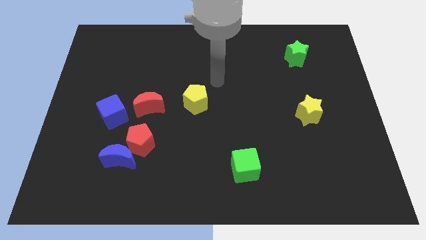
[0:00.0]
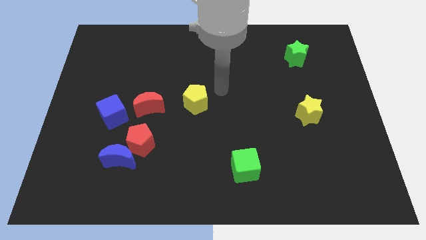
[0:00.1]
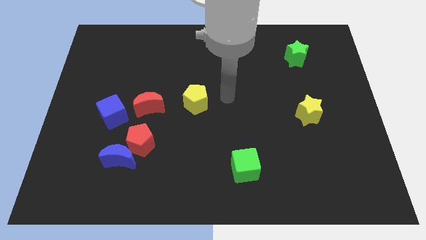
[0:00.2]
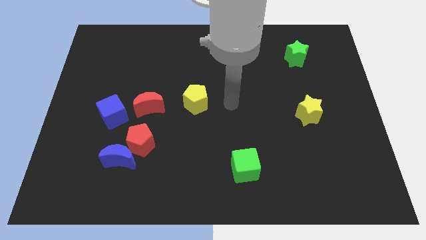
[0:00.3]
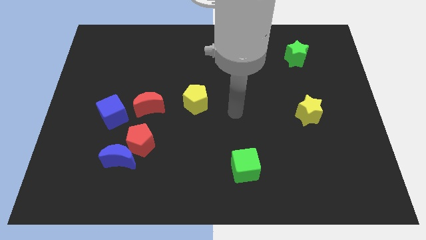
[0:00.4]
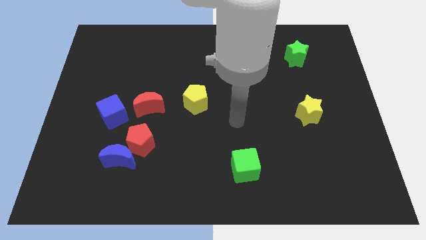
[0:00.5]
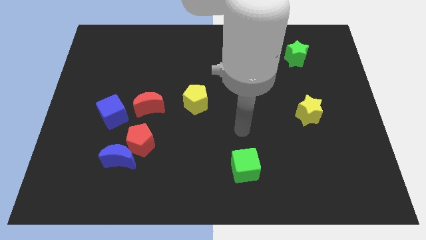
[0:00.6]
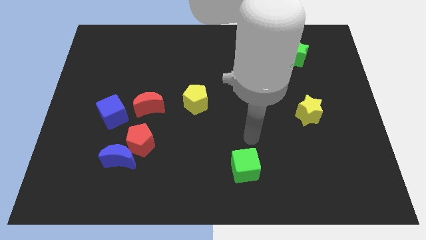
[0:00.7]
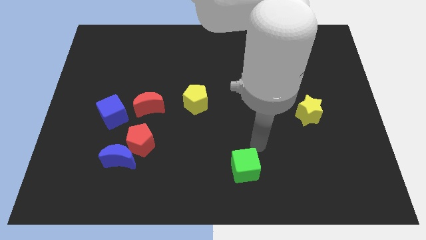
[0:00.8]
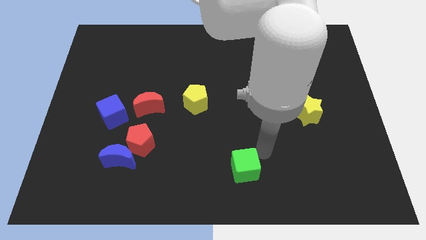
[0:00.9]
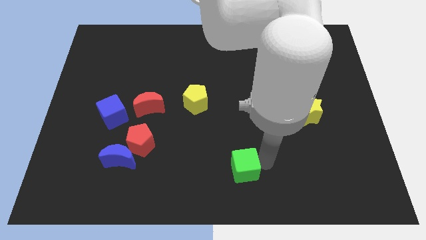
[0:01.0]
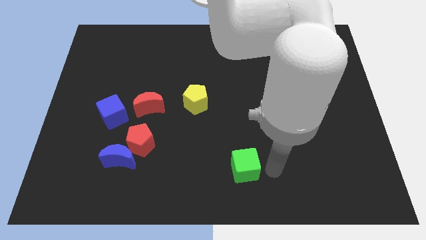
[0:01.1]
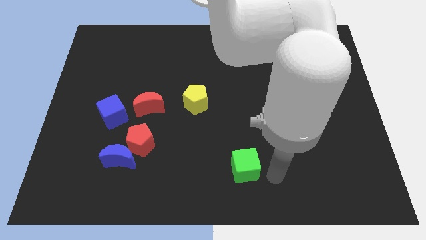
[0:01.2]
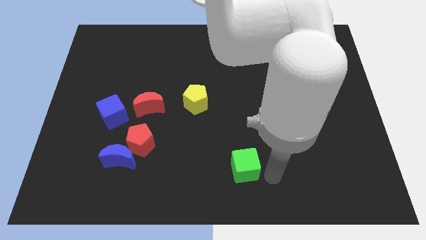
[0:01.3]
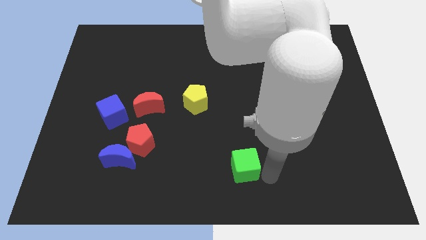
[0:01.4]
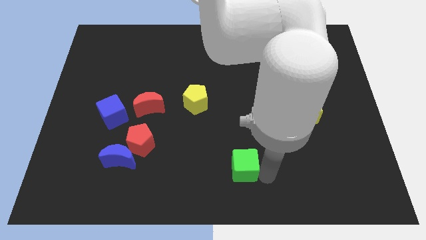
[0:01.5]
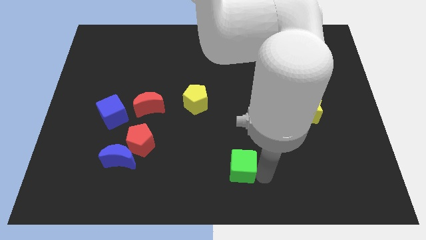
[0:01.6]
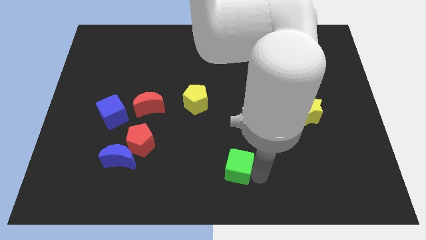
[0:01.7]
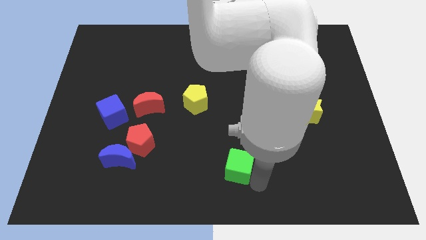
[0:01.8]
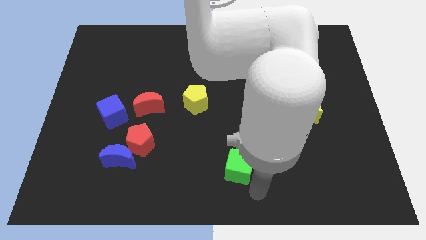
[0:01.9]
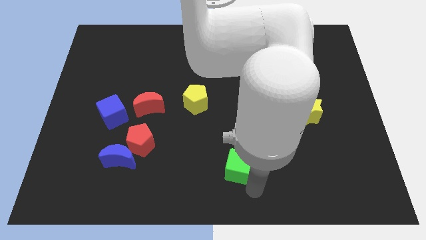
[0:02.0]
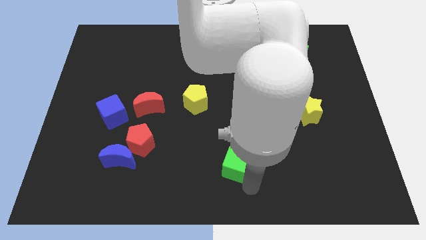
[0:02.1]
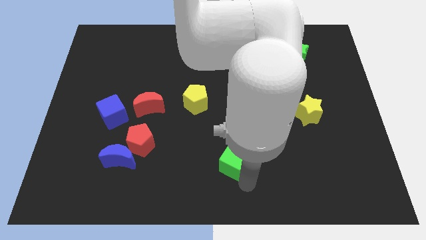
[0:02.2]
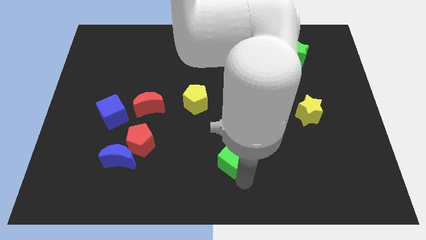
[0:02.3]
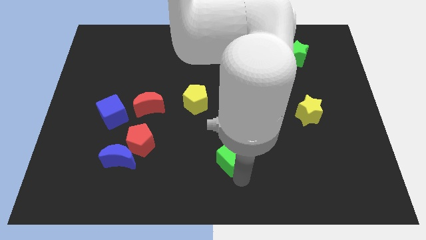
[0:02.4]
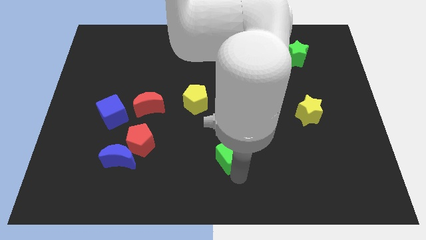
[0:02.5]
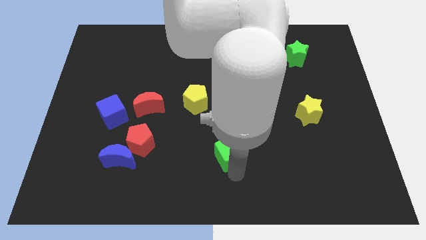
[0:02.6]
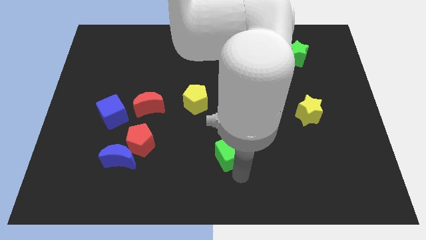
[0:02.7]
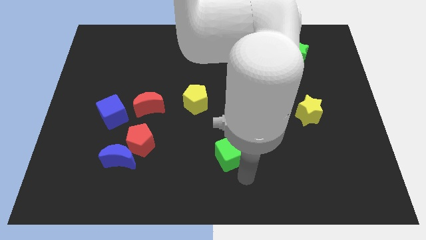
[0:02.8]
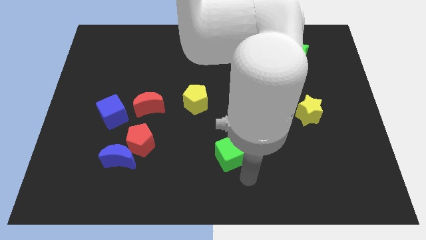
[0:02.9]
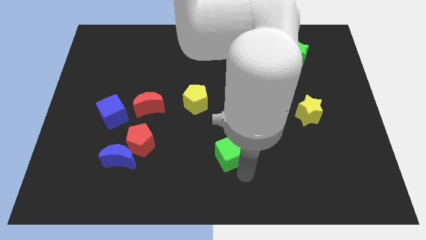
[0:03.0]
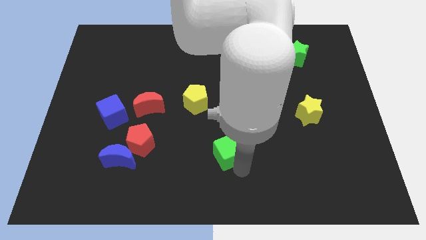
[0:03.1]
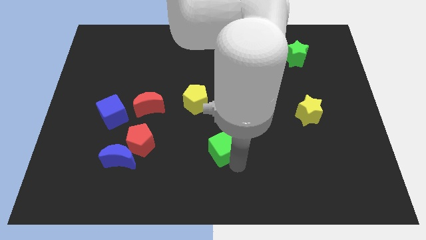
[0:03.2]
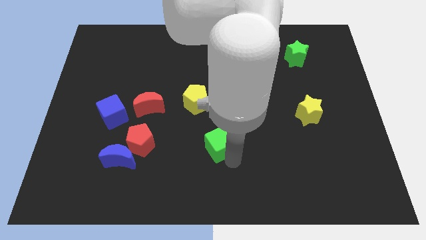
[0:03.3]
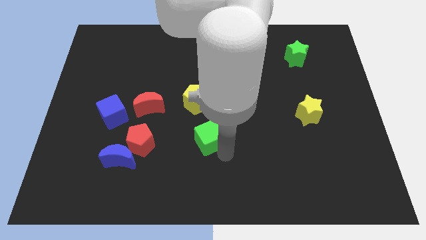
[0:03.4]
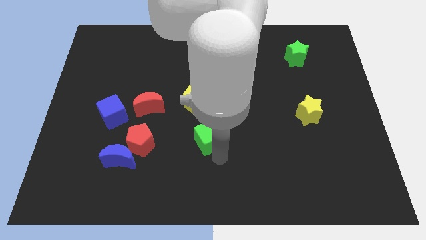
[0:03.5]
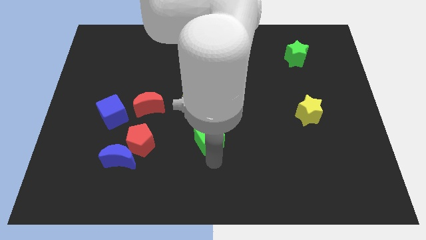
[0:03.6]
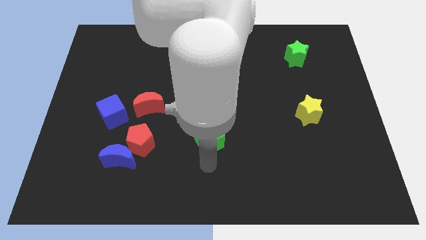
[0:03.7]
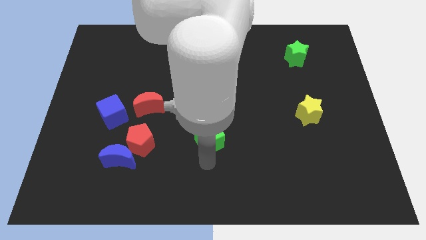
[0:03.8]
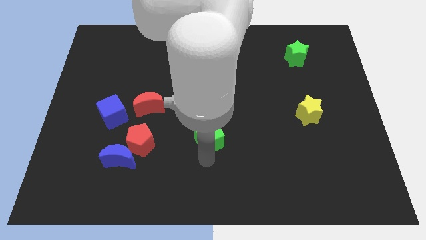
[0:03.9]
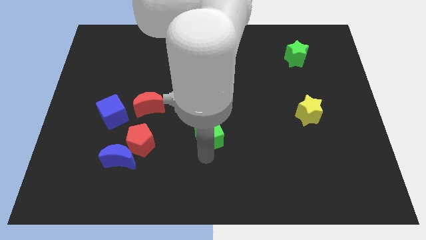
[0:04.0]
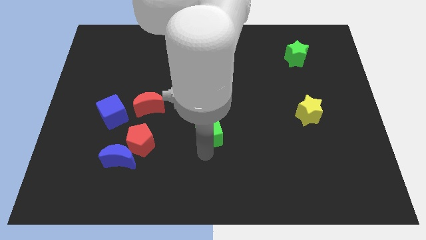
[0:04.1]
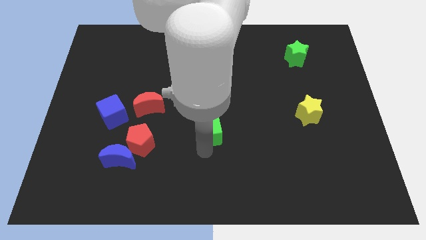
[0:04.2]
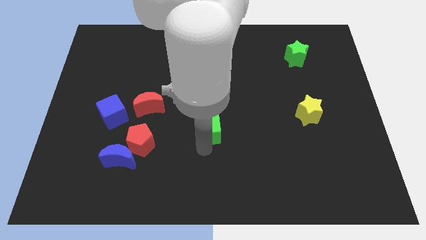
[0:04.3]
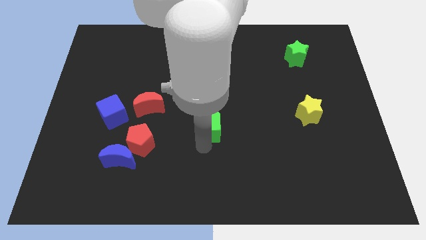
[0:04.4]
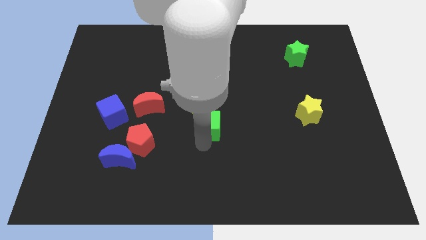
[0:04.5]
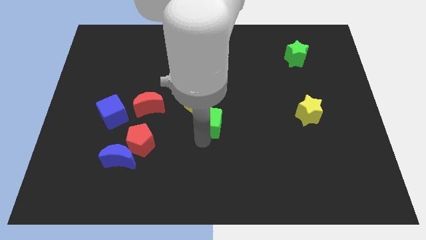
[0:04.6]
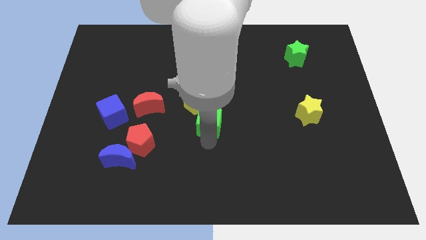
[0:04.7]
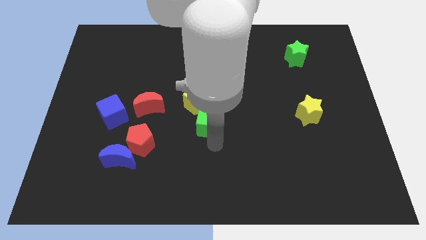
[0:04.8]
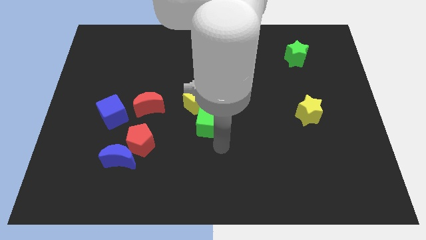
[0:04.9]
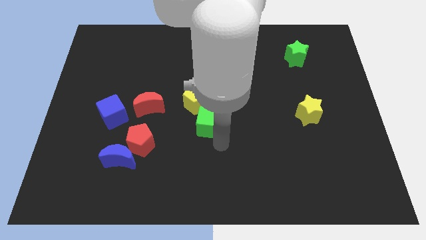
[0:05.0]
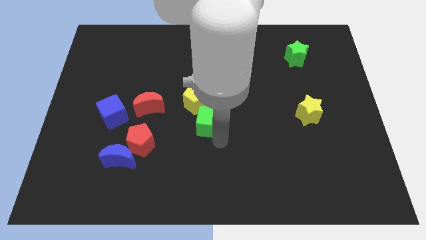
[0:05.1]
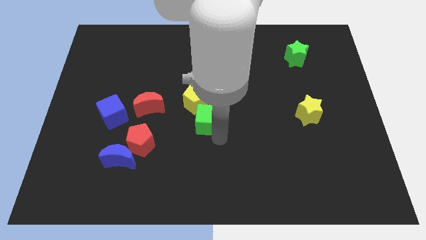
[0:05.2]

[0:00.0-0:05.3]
push the green cube next to the yellow pentagon

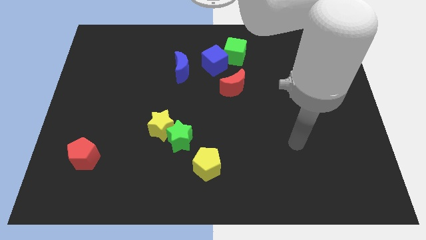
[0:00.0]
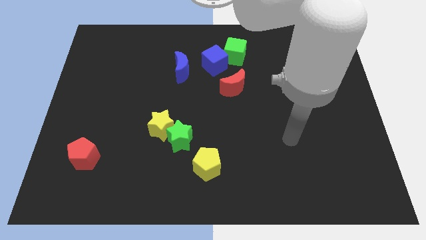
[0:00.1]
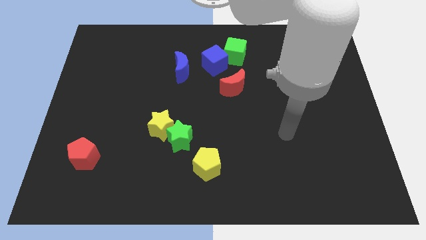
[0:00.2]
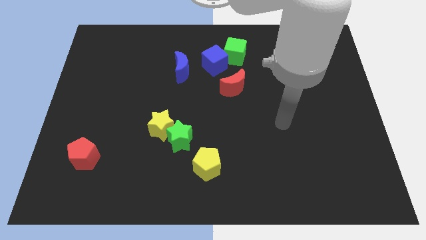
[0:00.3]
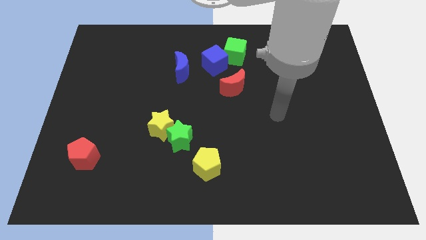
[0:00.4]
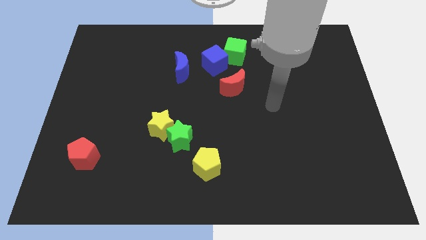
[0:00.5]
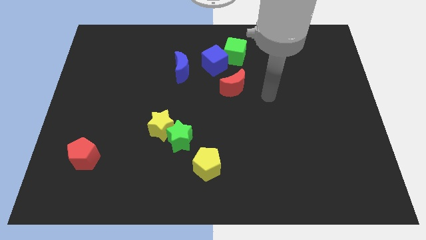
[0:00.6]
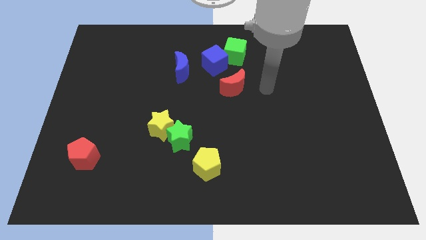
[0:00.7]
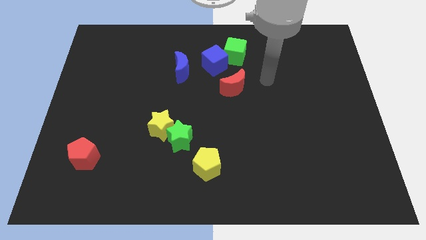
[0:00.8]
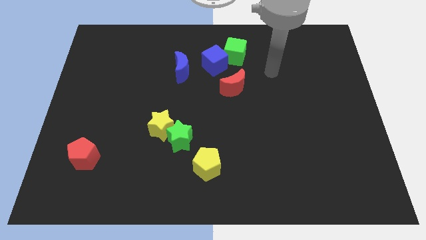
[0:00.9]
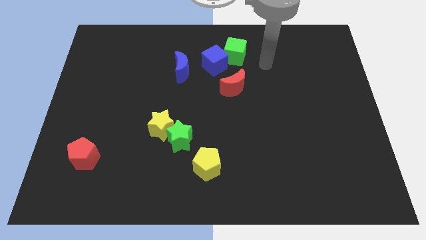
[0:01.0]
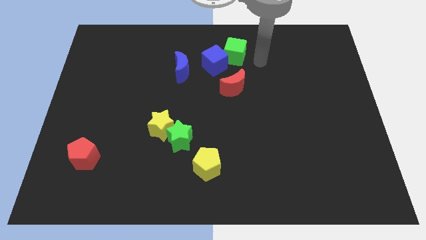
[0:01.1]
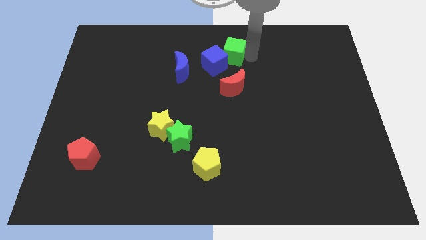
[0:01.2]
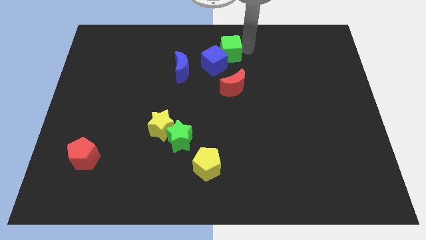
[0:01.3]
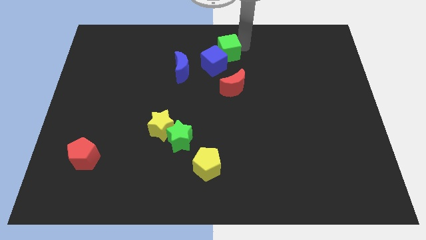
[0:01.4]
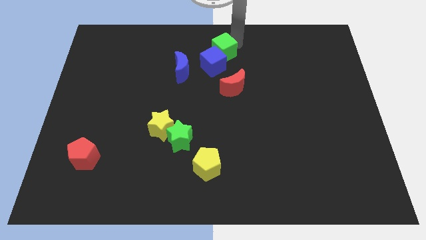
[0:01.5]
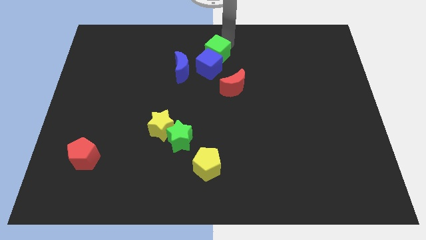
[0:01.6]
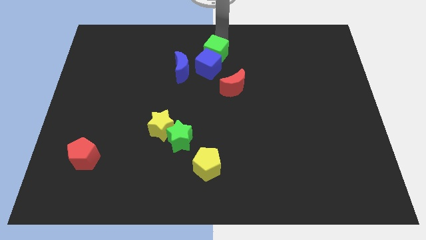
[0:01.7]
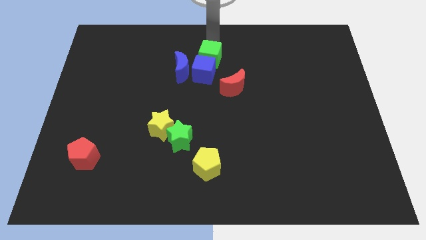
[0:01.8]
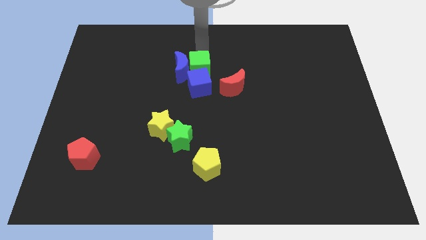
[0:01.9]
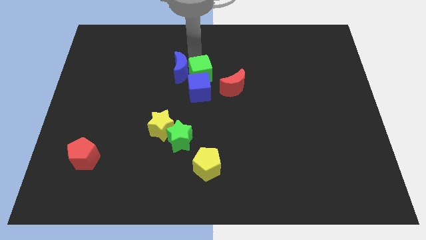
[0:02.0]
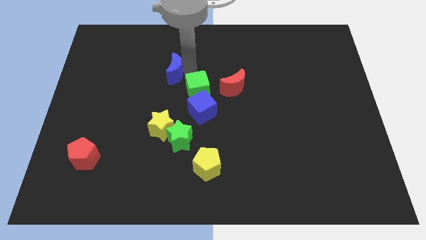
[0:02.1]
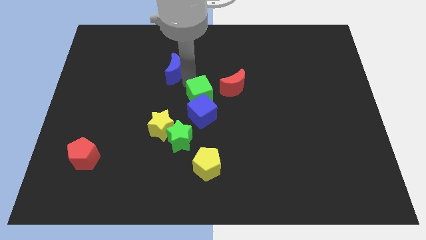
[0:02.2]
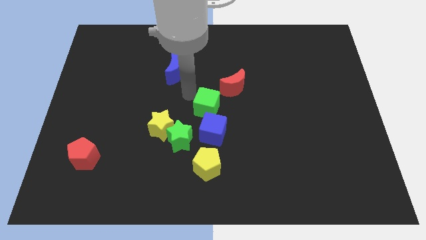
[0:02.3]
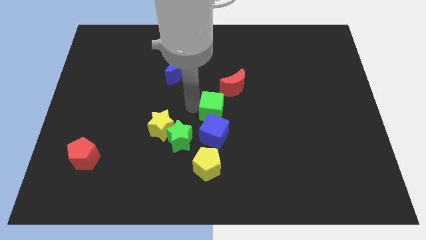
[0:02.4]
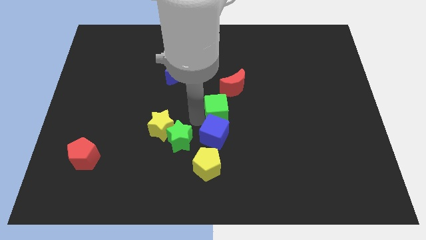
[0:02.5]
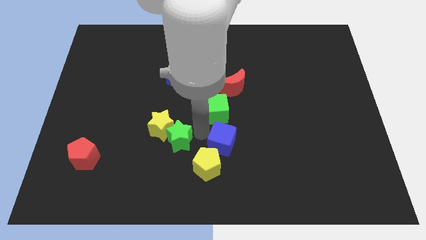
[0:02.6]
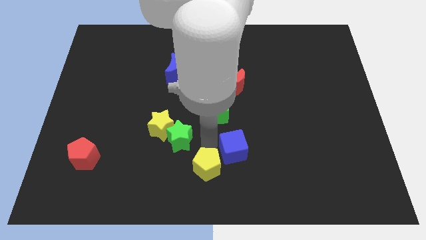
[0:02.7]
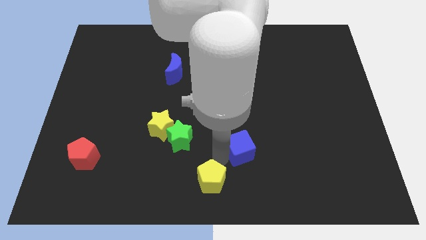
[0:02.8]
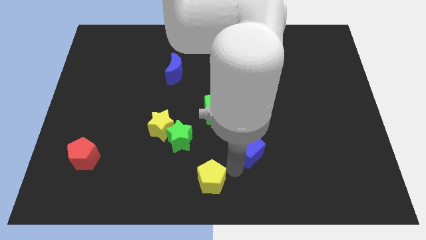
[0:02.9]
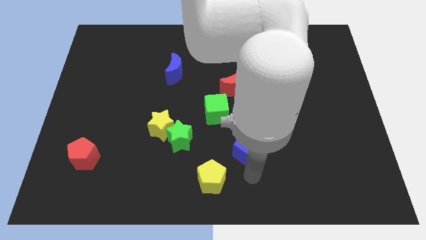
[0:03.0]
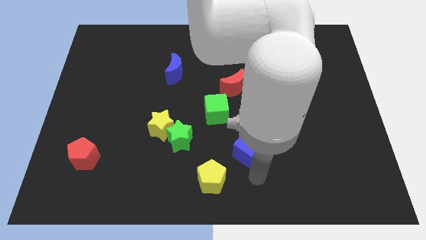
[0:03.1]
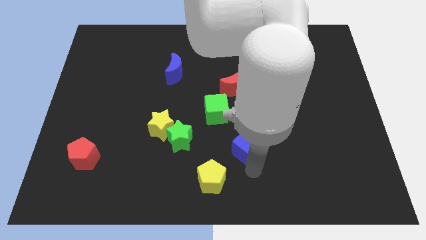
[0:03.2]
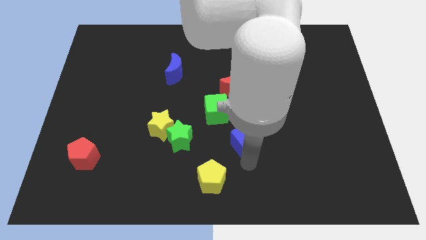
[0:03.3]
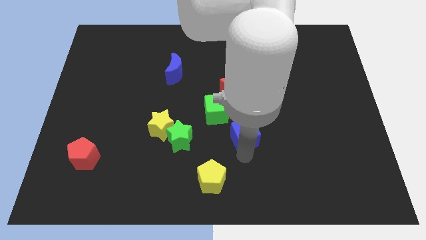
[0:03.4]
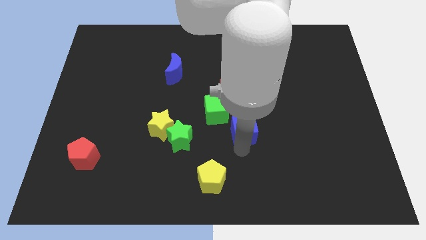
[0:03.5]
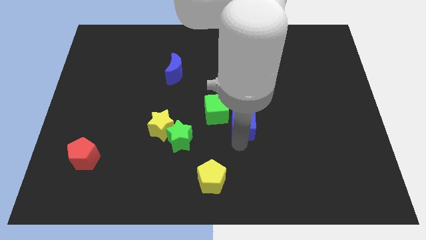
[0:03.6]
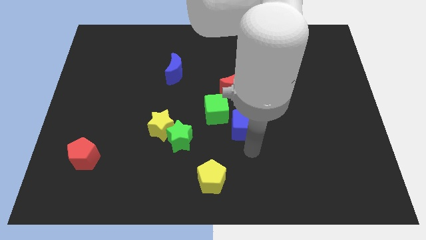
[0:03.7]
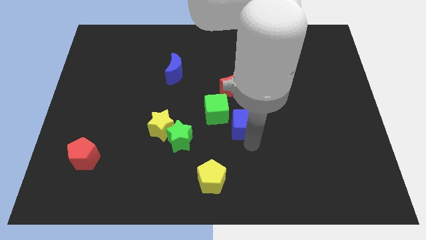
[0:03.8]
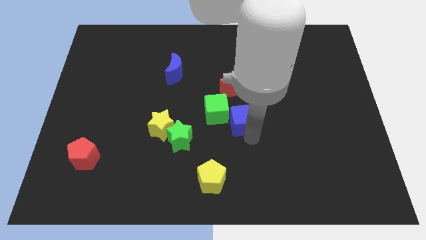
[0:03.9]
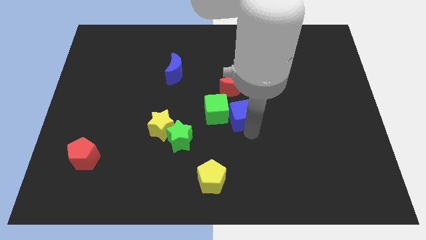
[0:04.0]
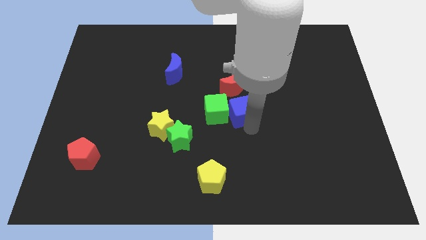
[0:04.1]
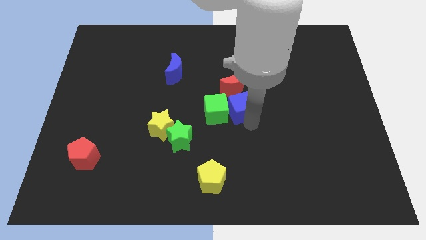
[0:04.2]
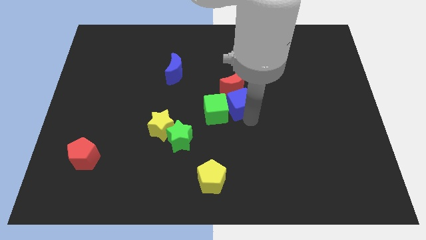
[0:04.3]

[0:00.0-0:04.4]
push the blue cube next to the red moon
